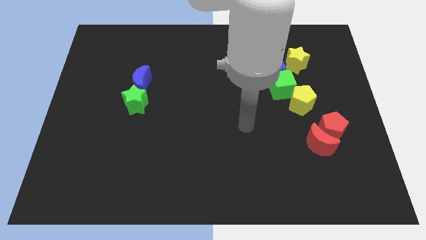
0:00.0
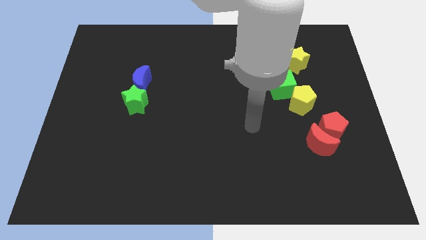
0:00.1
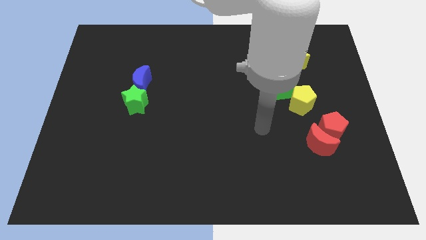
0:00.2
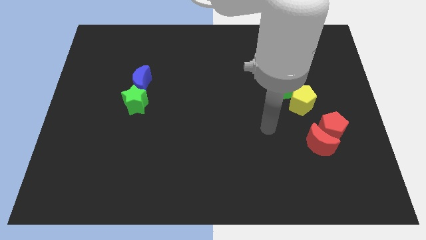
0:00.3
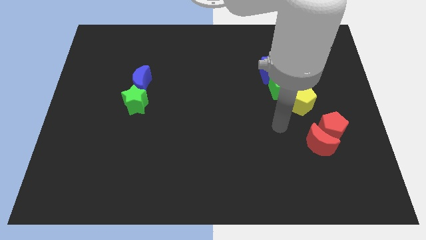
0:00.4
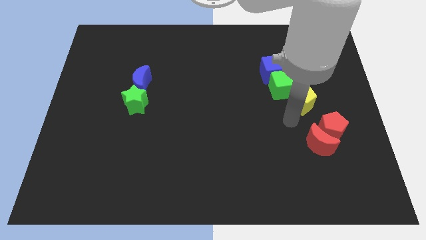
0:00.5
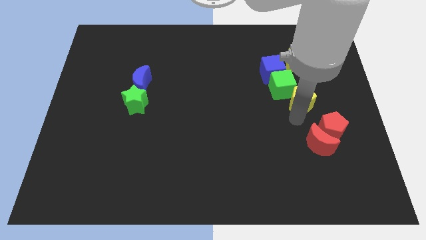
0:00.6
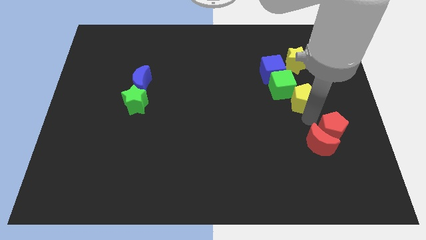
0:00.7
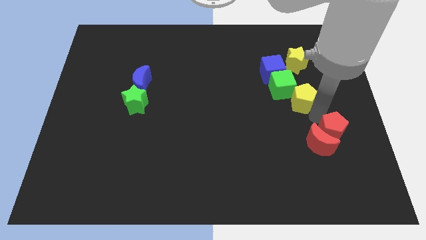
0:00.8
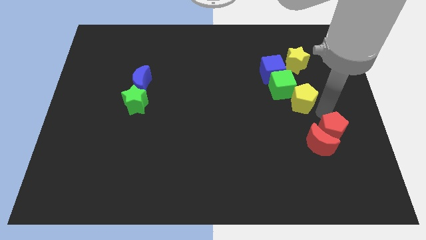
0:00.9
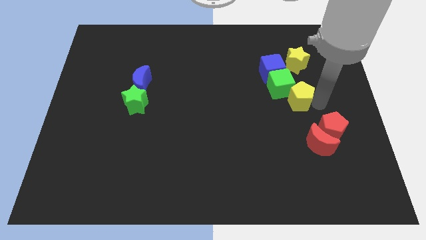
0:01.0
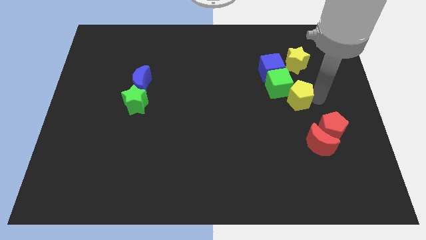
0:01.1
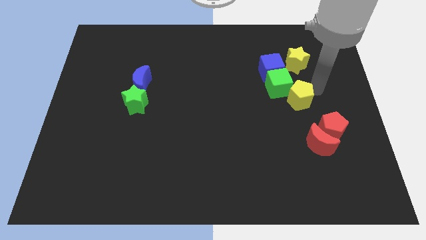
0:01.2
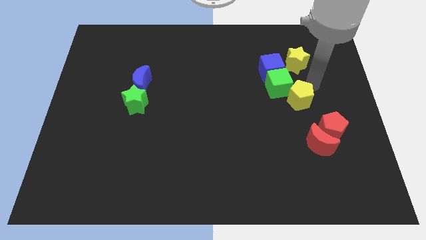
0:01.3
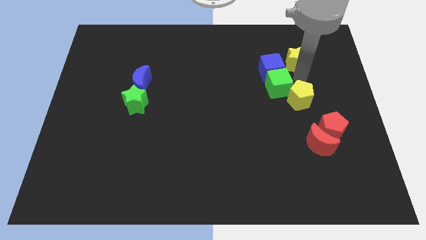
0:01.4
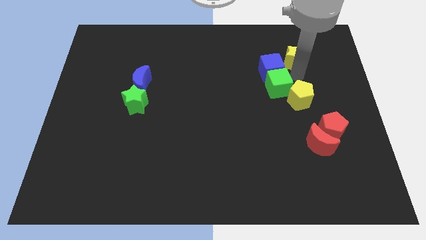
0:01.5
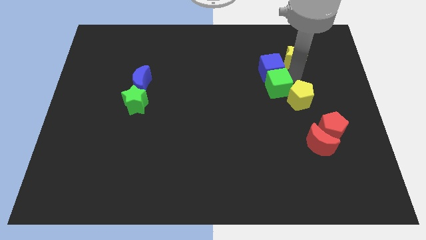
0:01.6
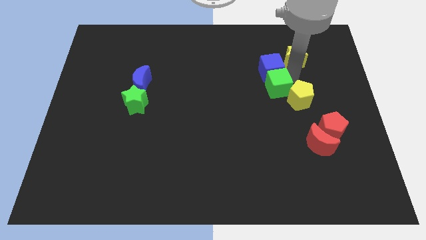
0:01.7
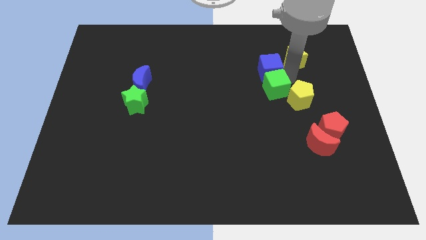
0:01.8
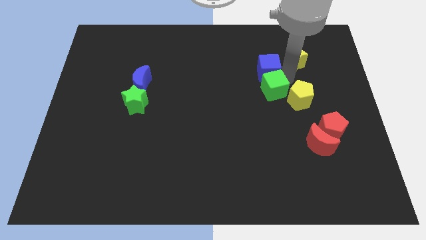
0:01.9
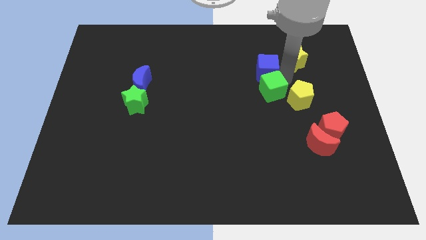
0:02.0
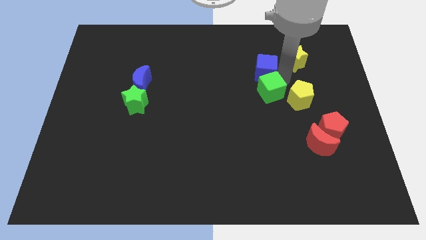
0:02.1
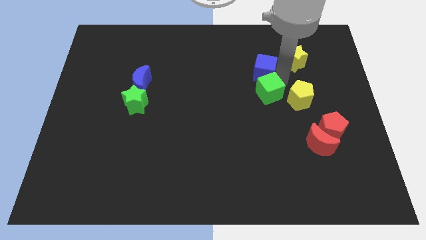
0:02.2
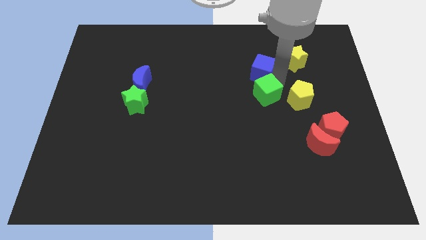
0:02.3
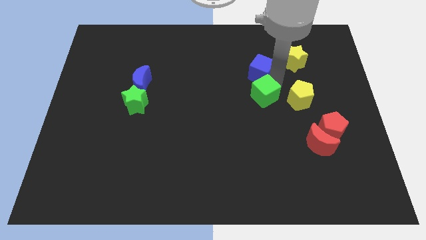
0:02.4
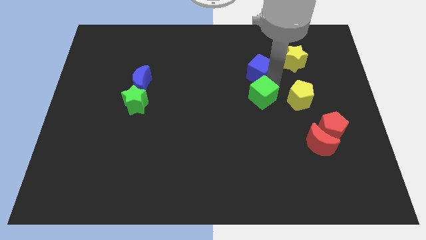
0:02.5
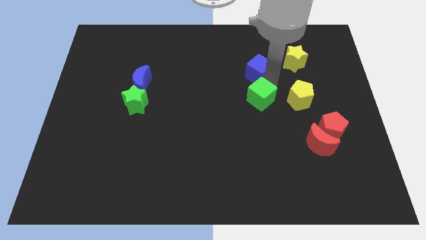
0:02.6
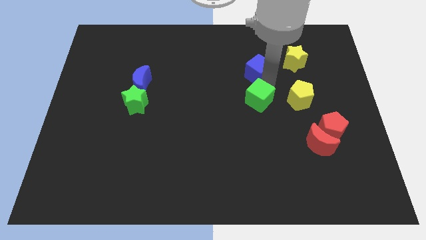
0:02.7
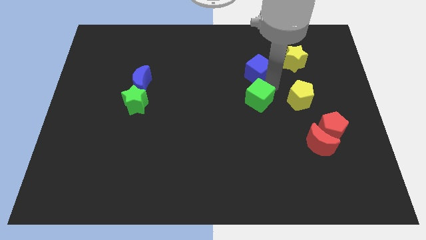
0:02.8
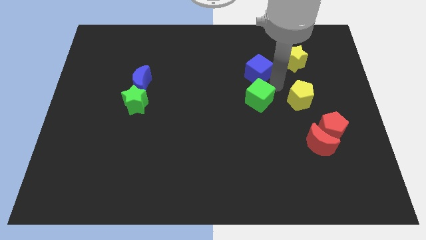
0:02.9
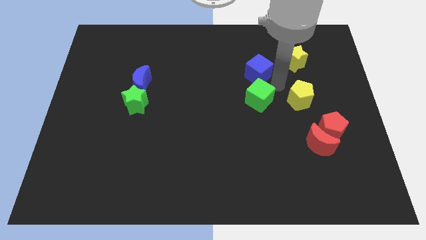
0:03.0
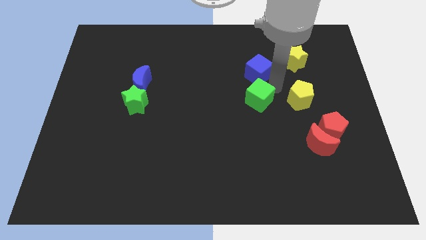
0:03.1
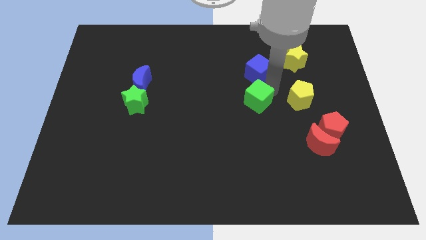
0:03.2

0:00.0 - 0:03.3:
push the green cube down and left somewhat

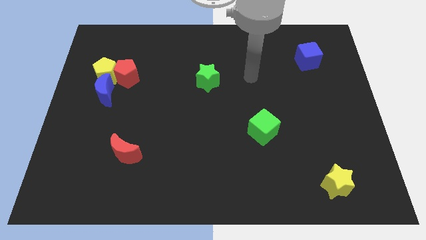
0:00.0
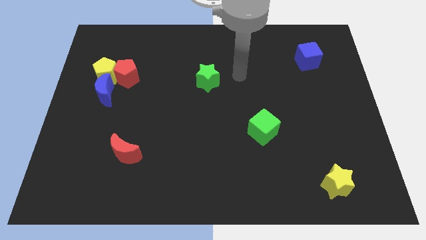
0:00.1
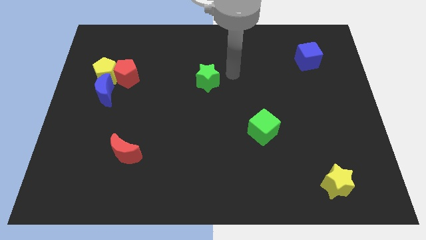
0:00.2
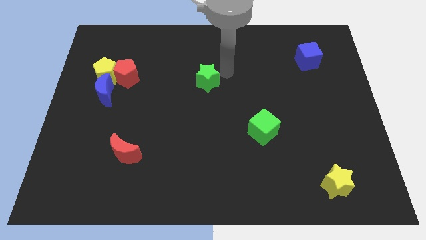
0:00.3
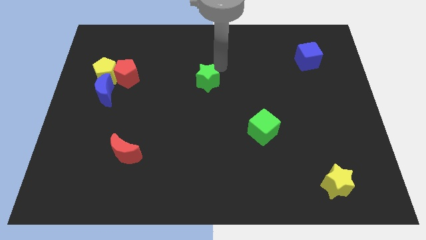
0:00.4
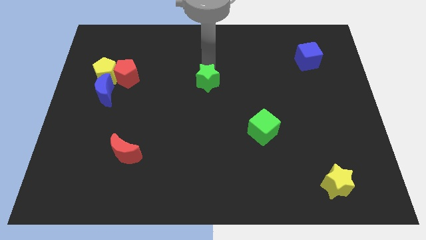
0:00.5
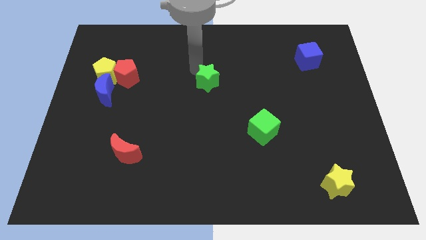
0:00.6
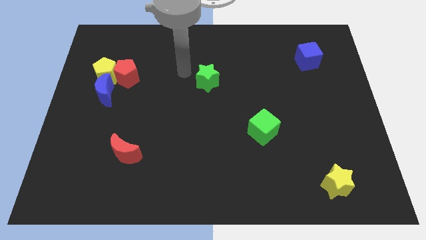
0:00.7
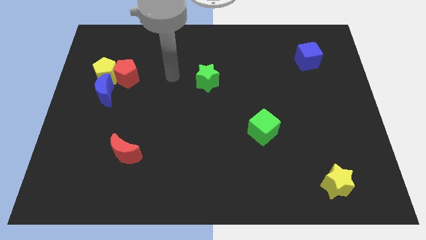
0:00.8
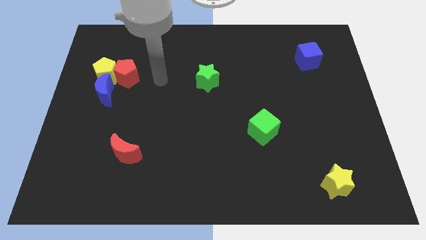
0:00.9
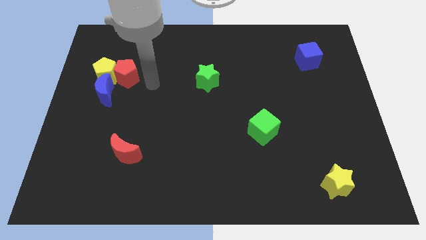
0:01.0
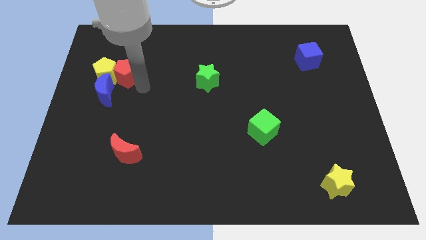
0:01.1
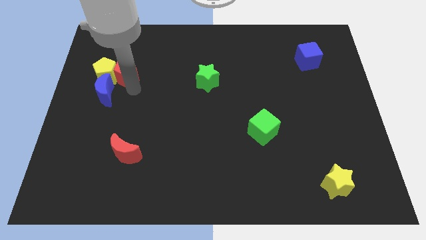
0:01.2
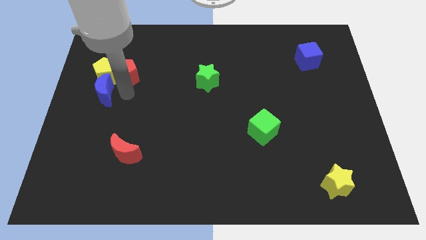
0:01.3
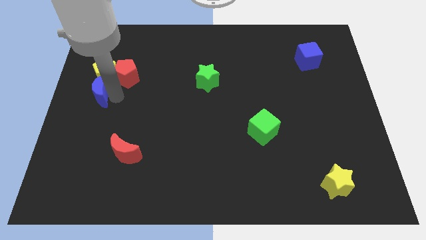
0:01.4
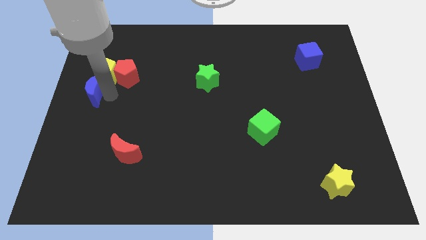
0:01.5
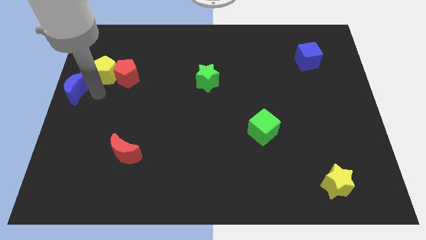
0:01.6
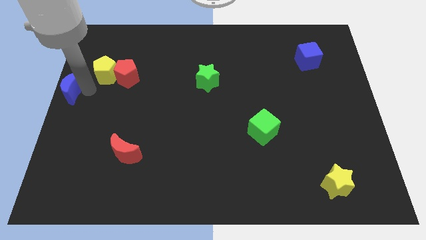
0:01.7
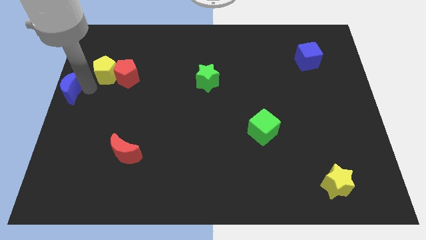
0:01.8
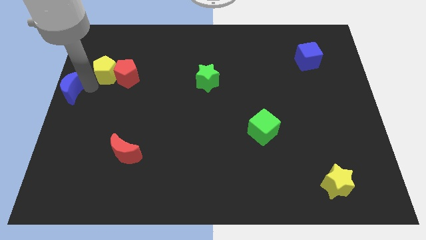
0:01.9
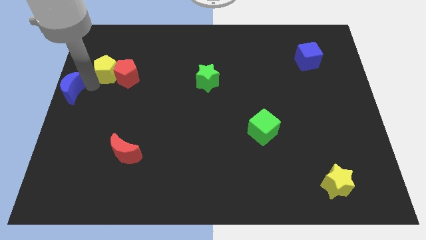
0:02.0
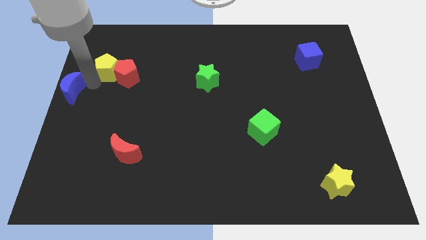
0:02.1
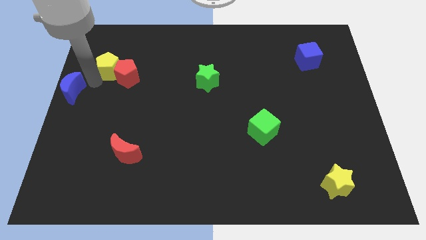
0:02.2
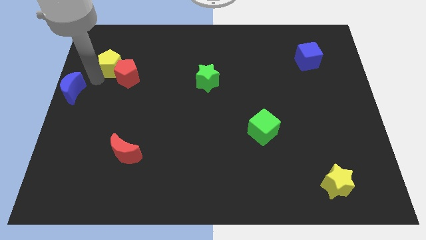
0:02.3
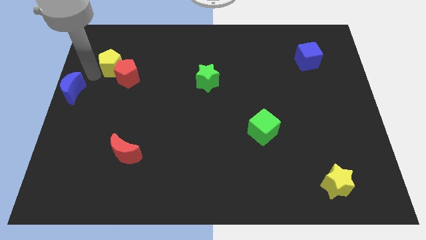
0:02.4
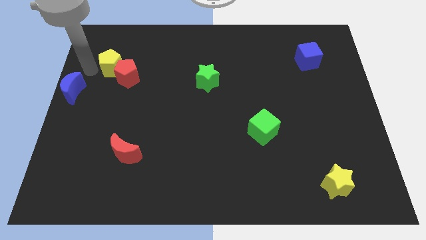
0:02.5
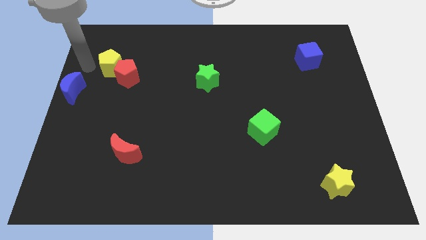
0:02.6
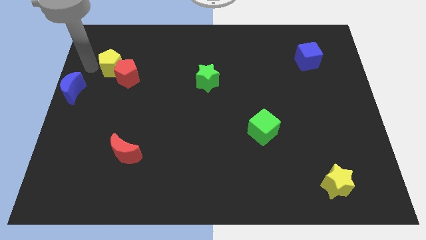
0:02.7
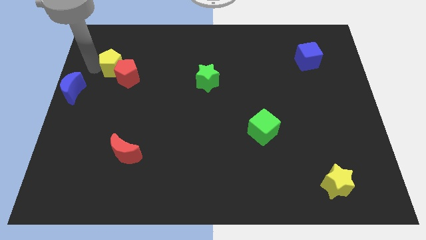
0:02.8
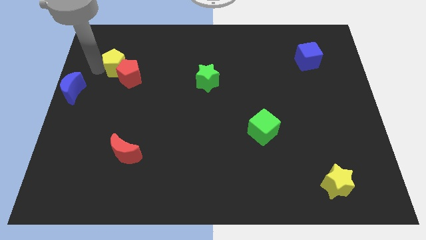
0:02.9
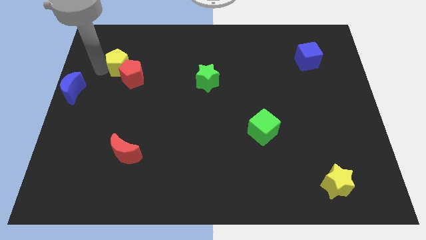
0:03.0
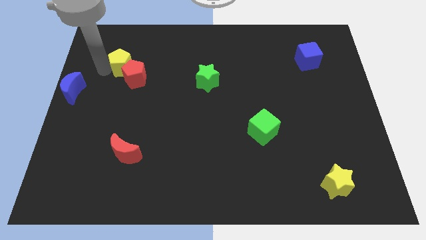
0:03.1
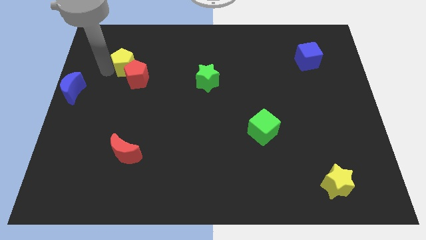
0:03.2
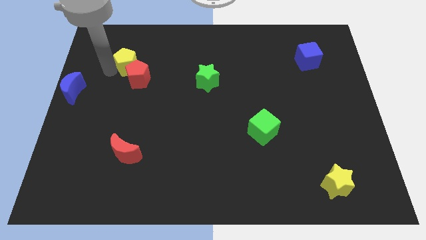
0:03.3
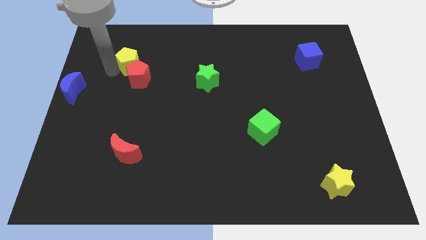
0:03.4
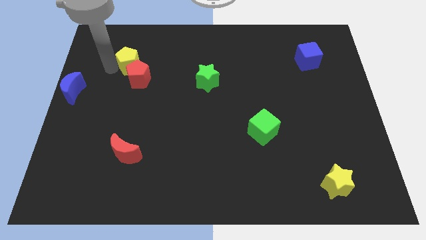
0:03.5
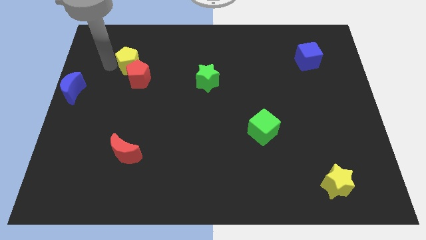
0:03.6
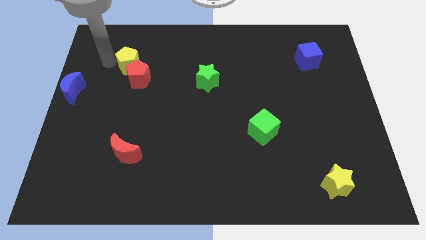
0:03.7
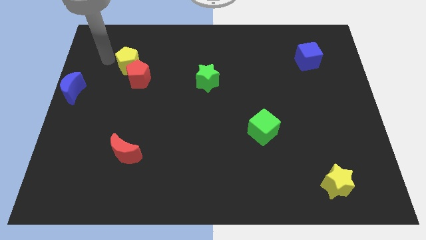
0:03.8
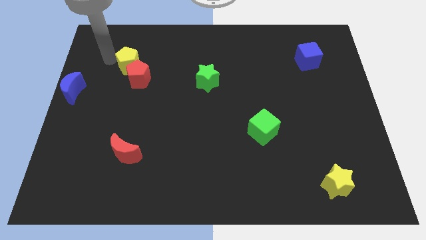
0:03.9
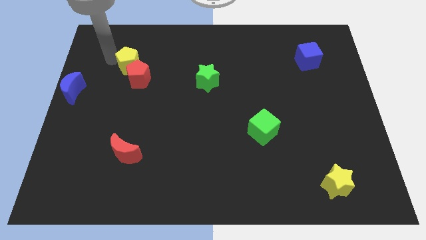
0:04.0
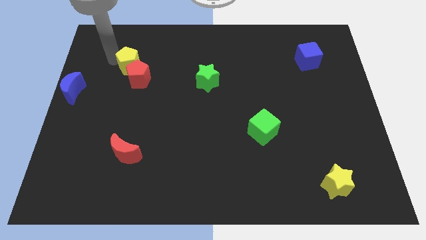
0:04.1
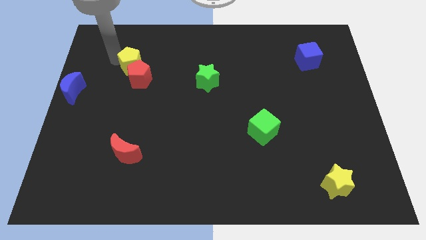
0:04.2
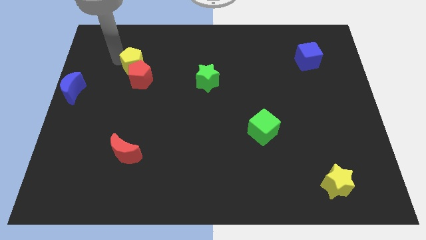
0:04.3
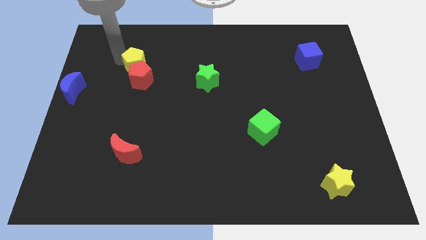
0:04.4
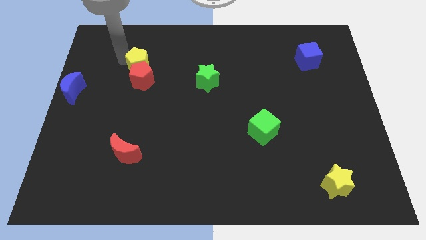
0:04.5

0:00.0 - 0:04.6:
move the yellow pentagon right a bit
